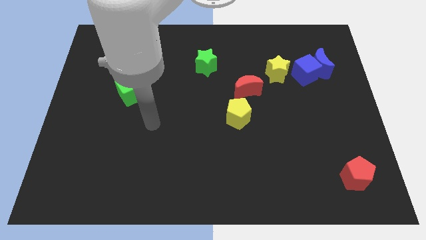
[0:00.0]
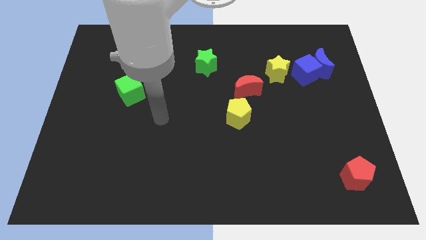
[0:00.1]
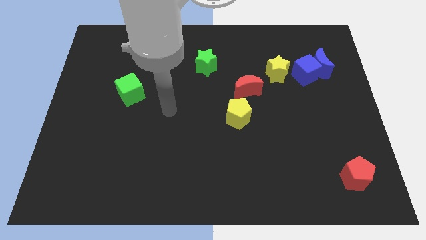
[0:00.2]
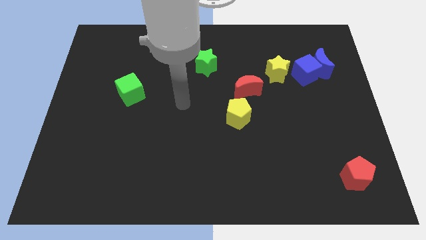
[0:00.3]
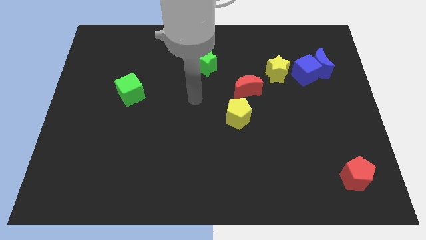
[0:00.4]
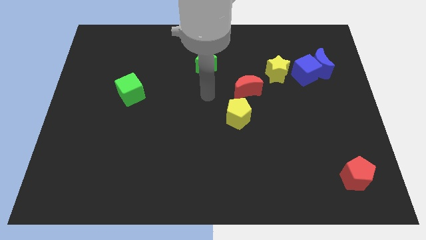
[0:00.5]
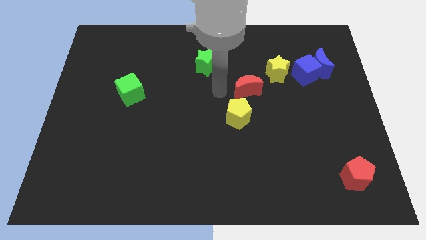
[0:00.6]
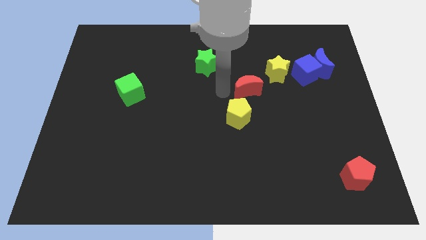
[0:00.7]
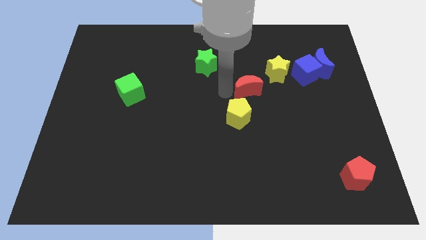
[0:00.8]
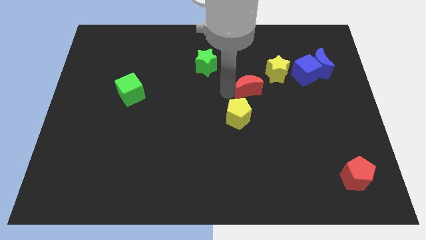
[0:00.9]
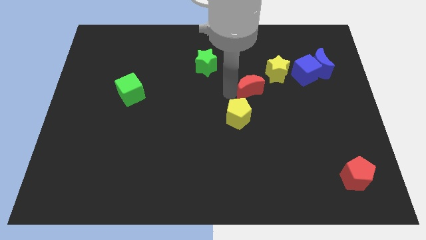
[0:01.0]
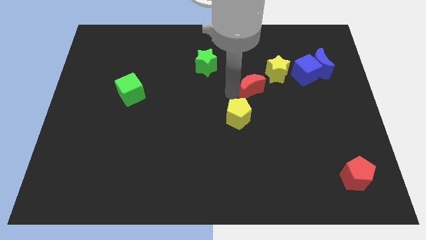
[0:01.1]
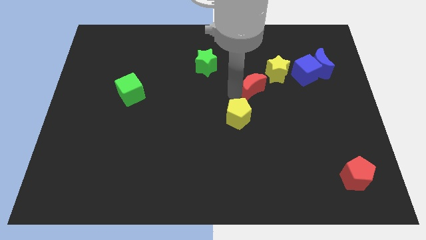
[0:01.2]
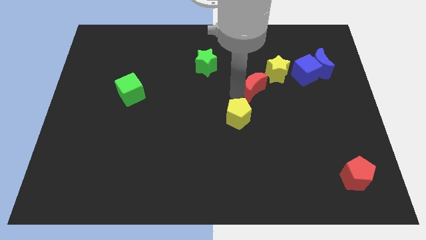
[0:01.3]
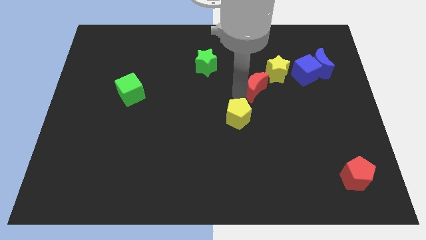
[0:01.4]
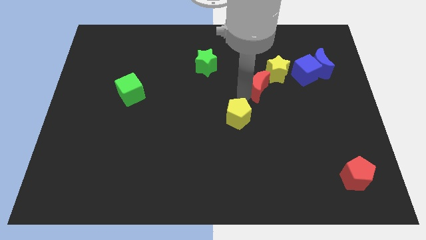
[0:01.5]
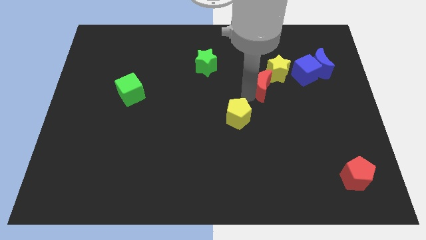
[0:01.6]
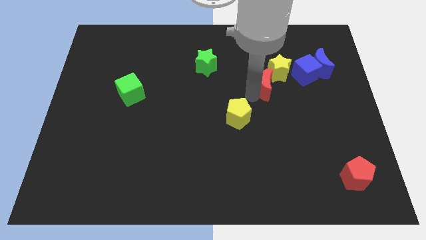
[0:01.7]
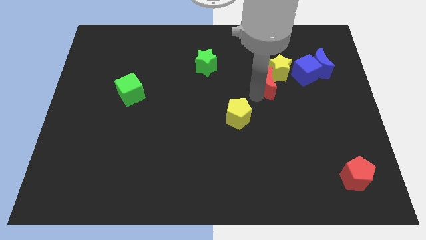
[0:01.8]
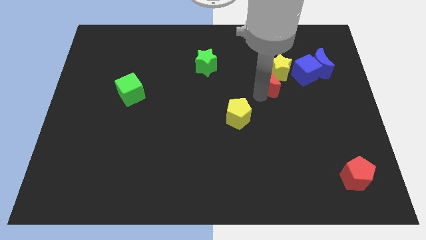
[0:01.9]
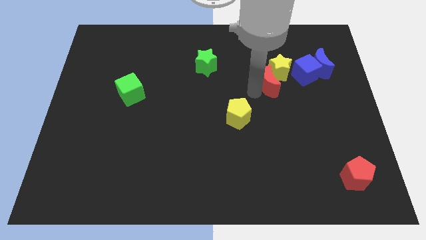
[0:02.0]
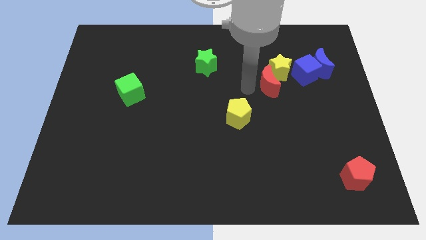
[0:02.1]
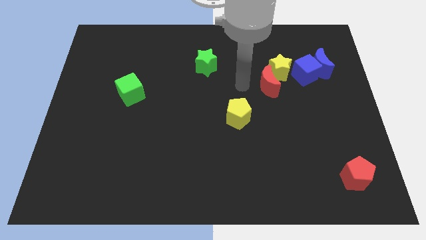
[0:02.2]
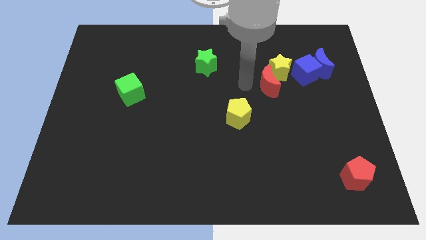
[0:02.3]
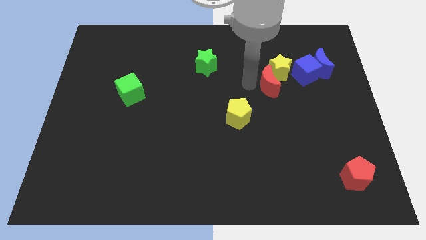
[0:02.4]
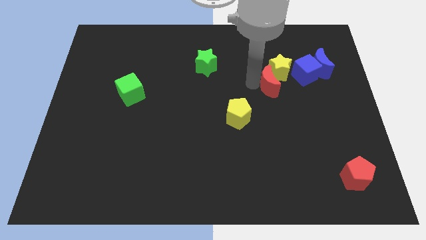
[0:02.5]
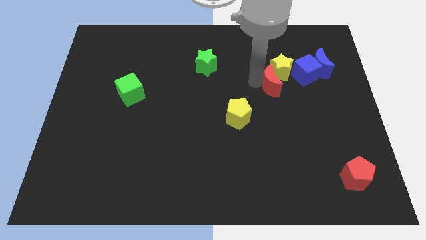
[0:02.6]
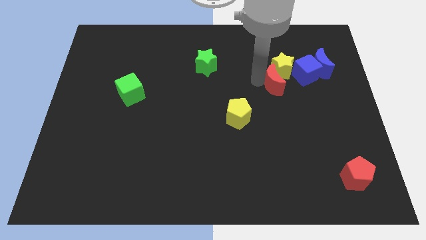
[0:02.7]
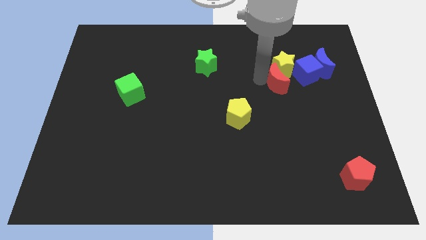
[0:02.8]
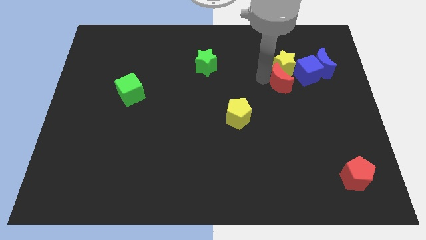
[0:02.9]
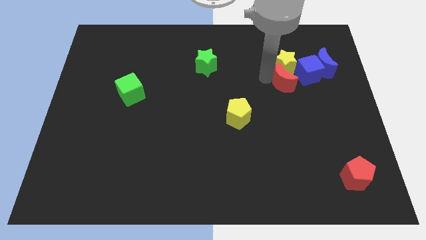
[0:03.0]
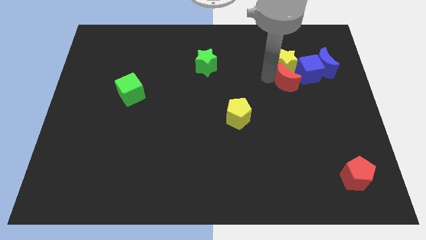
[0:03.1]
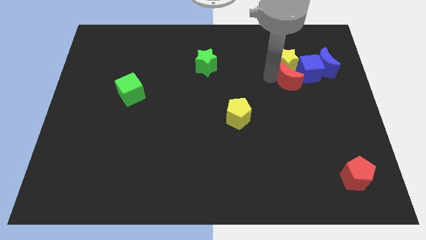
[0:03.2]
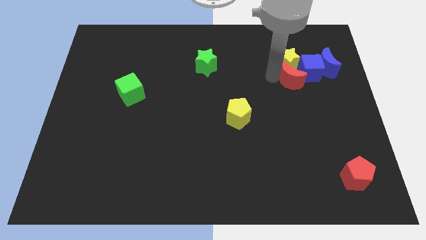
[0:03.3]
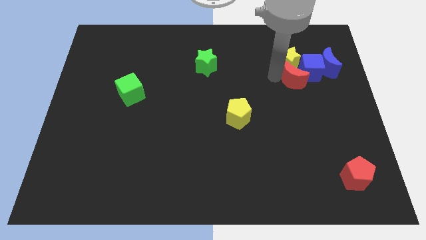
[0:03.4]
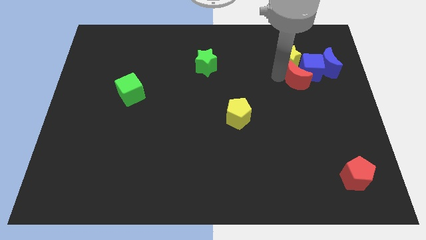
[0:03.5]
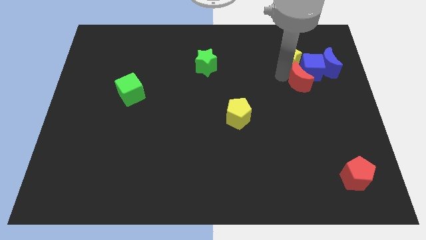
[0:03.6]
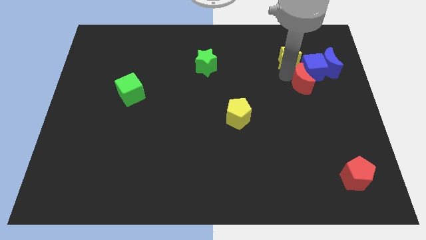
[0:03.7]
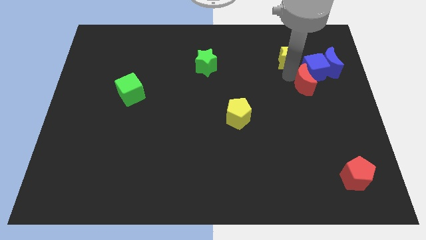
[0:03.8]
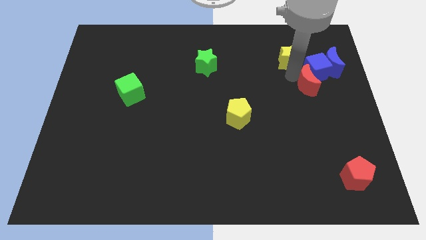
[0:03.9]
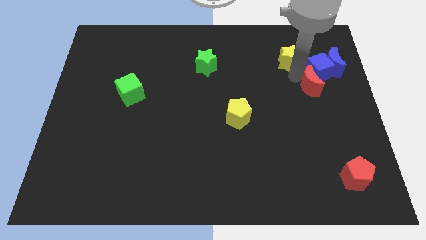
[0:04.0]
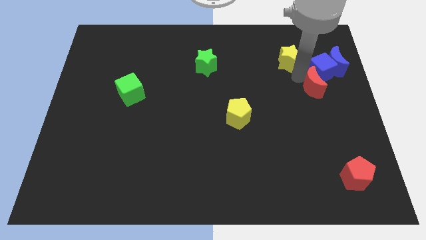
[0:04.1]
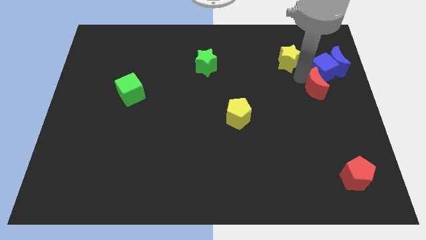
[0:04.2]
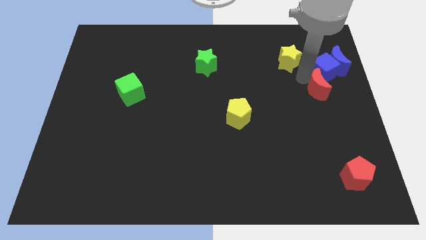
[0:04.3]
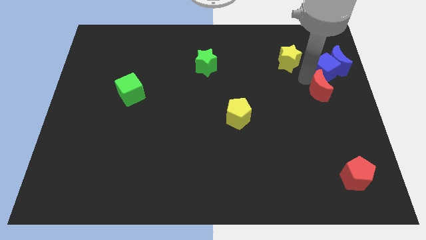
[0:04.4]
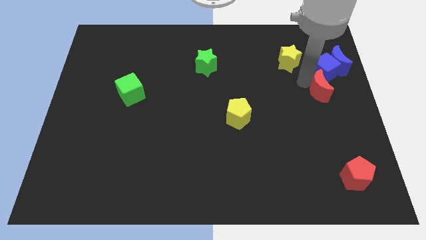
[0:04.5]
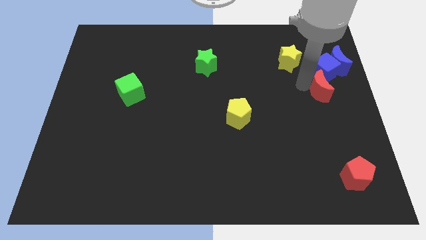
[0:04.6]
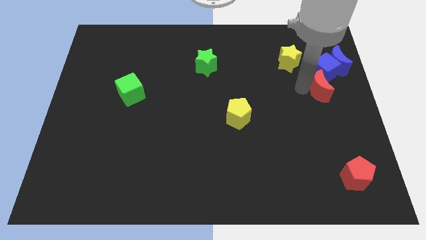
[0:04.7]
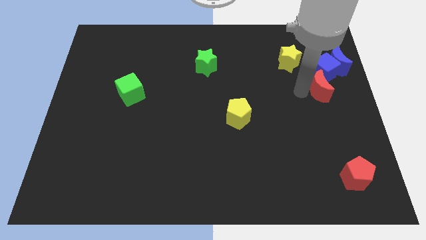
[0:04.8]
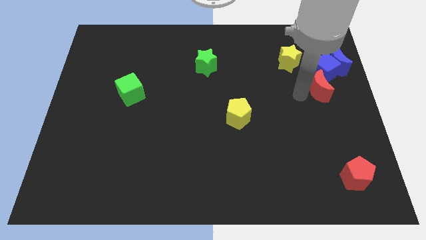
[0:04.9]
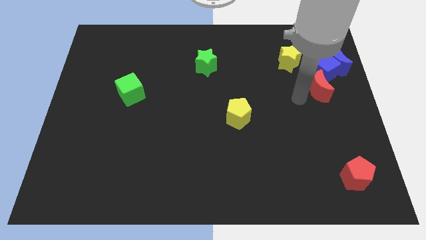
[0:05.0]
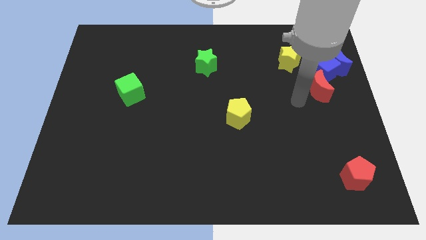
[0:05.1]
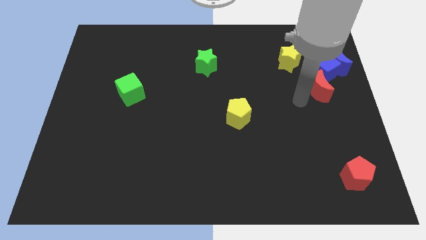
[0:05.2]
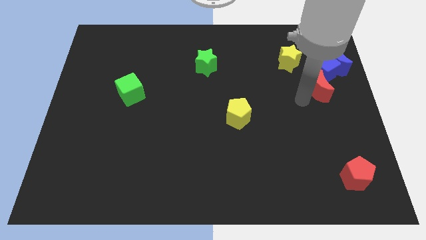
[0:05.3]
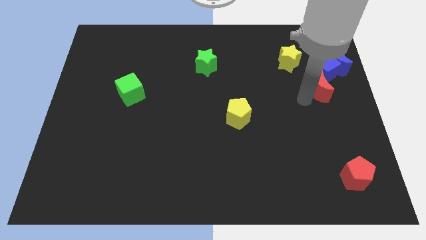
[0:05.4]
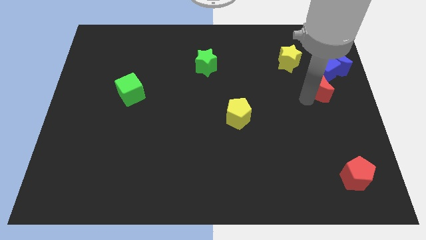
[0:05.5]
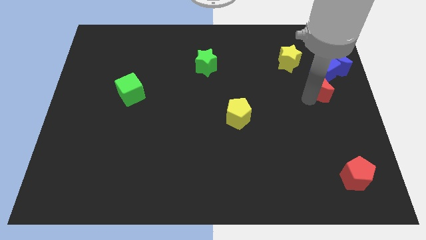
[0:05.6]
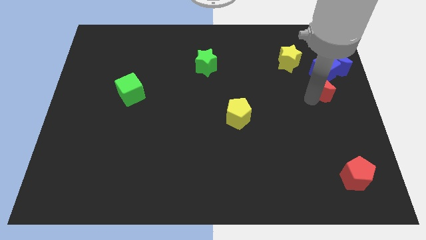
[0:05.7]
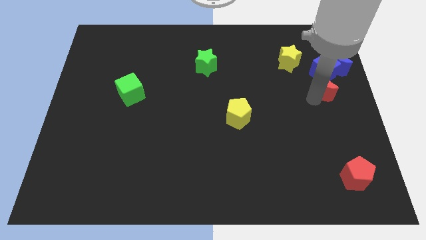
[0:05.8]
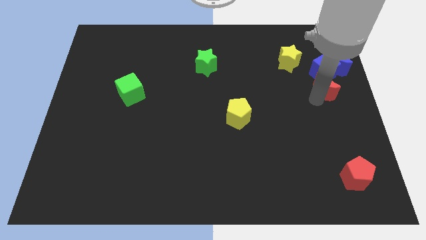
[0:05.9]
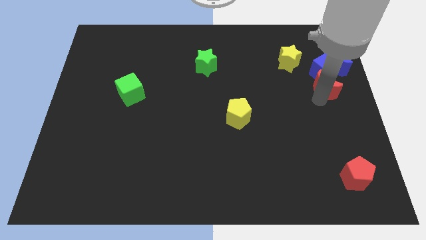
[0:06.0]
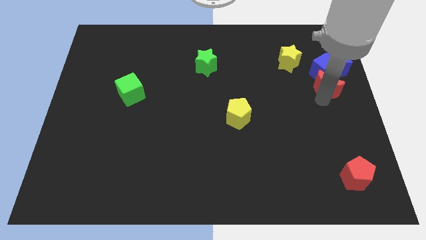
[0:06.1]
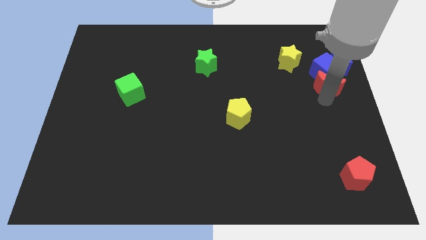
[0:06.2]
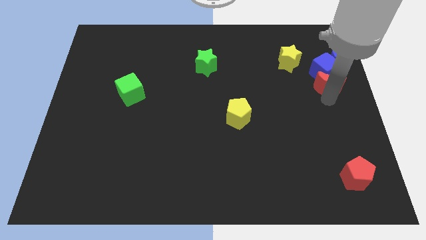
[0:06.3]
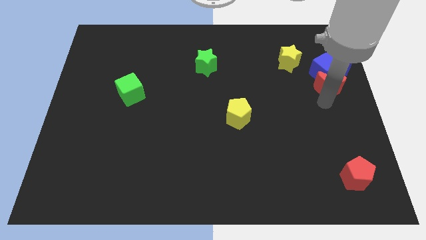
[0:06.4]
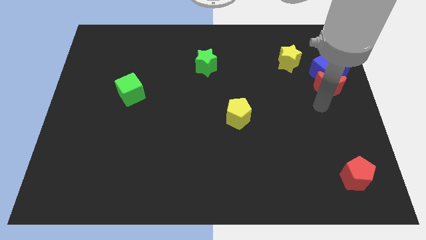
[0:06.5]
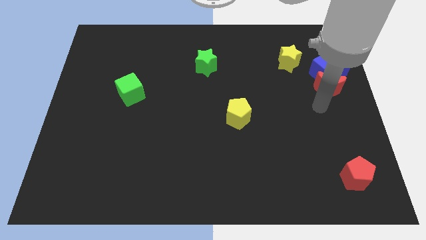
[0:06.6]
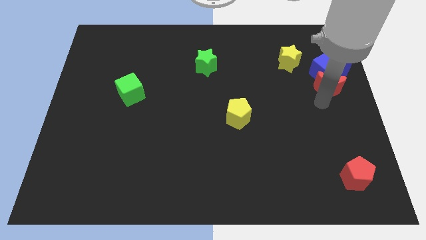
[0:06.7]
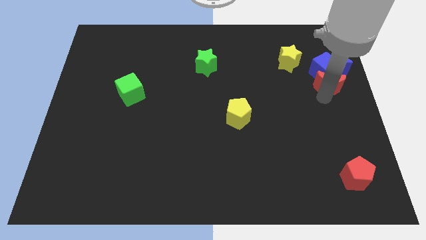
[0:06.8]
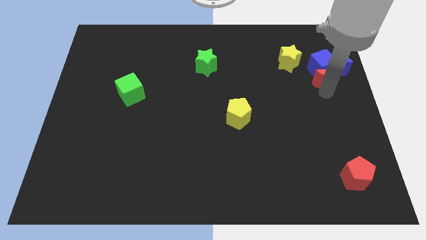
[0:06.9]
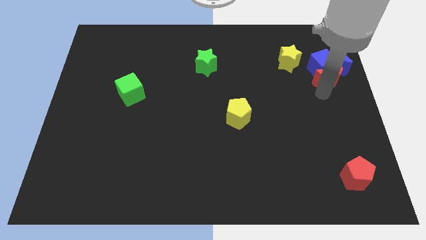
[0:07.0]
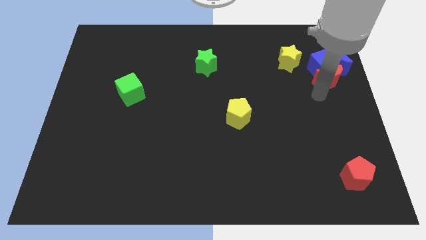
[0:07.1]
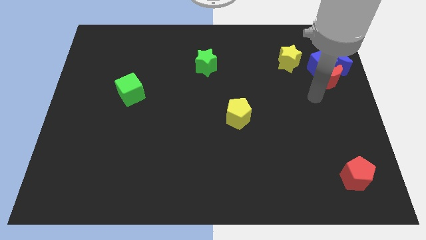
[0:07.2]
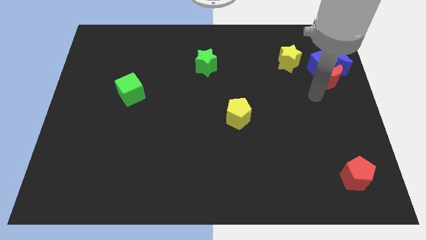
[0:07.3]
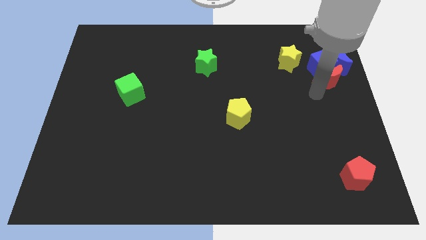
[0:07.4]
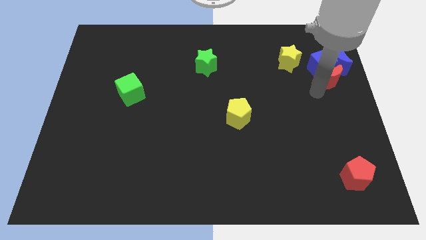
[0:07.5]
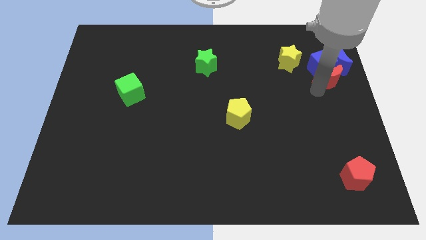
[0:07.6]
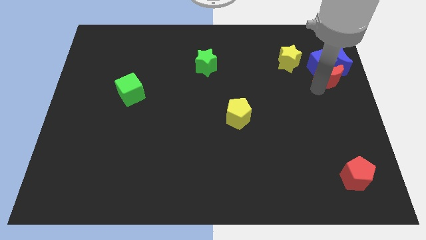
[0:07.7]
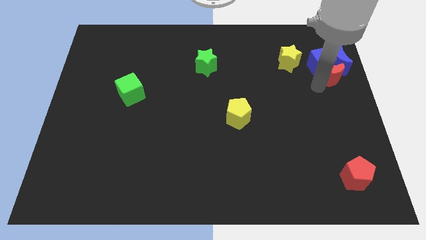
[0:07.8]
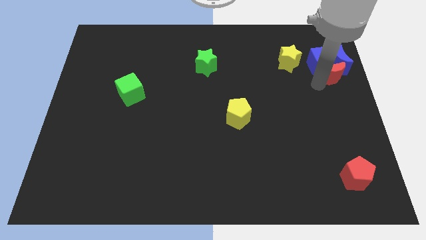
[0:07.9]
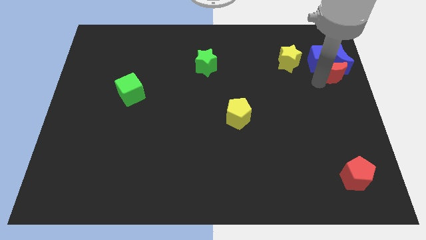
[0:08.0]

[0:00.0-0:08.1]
push the red moon right of the yellow star
